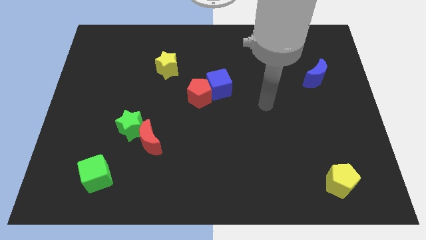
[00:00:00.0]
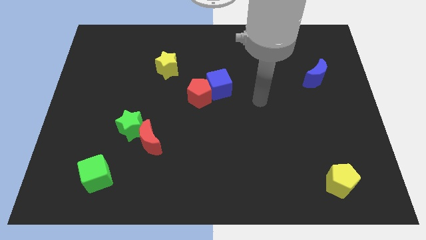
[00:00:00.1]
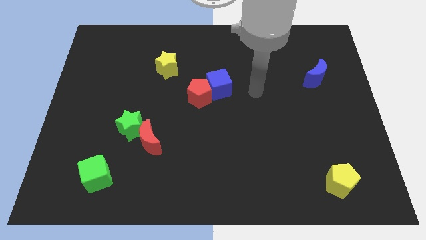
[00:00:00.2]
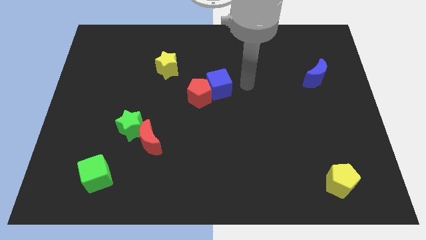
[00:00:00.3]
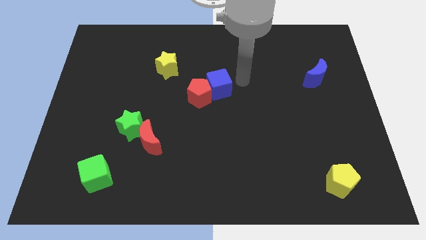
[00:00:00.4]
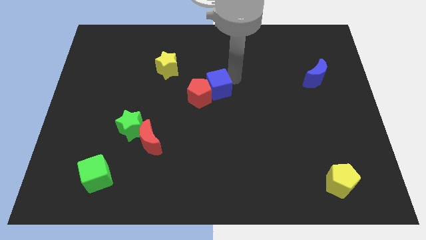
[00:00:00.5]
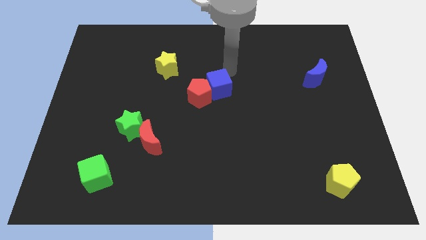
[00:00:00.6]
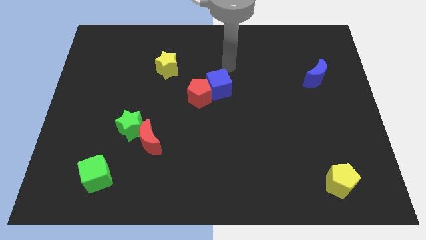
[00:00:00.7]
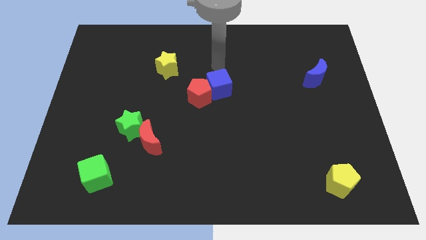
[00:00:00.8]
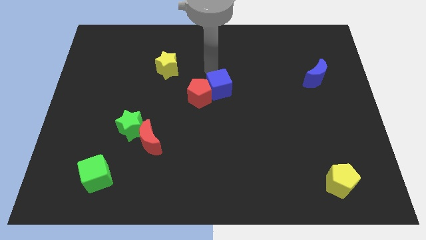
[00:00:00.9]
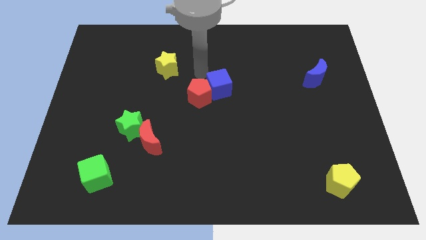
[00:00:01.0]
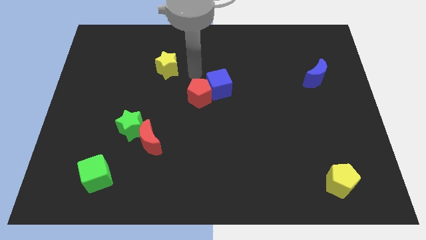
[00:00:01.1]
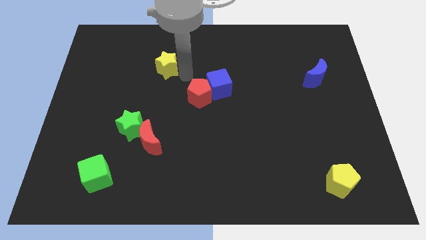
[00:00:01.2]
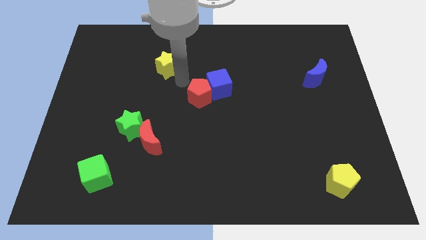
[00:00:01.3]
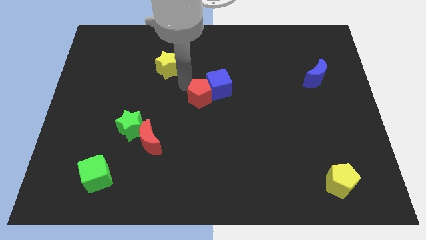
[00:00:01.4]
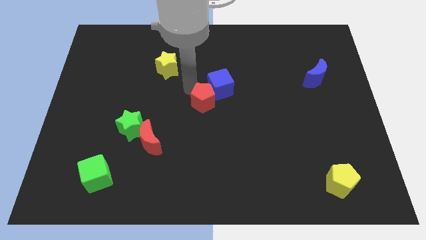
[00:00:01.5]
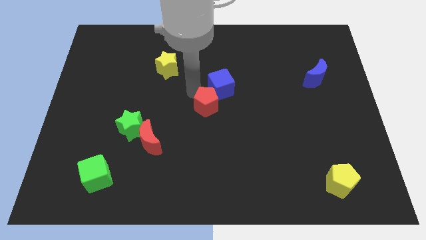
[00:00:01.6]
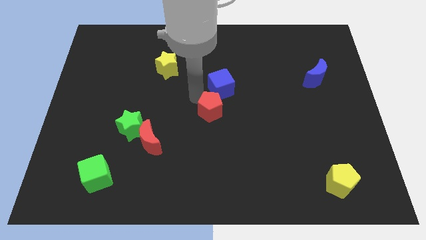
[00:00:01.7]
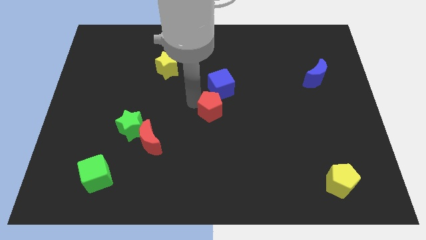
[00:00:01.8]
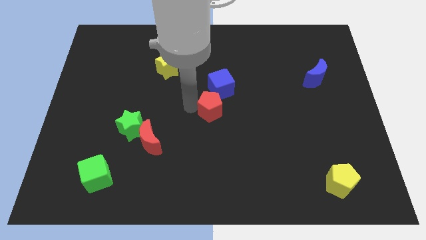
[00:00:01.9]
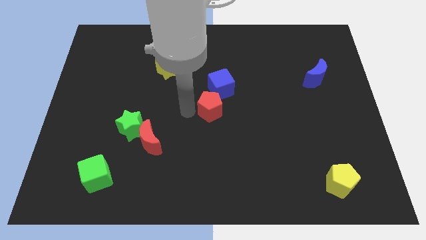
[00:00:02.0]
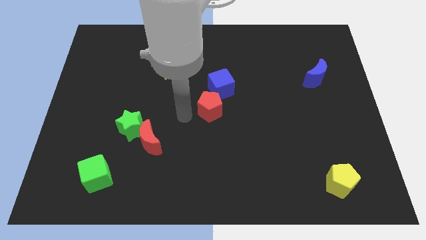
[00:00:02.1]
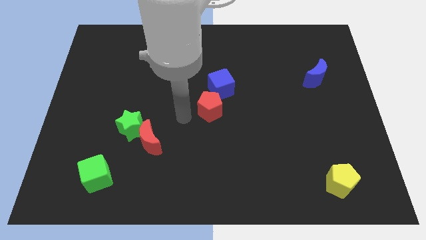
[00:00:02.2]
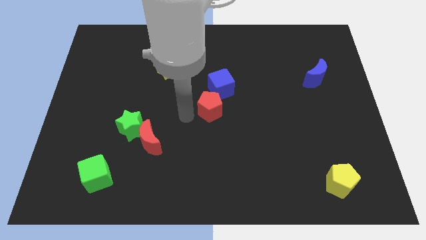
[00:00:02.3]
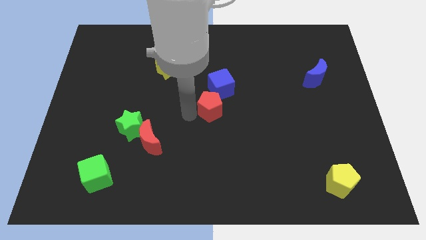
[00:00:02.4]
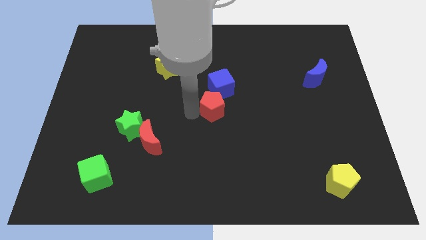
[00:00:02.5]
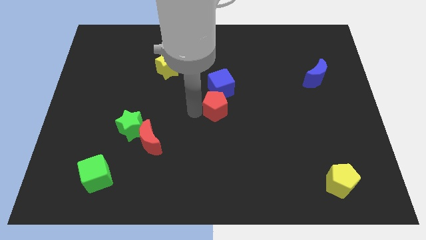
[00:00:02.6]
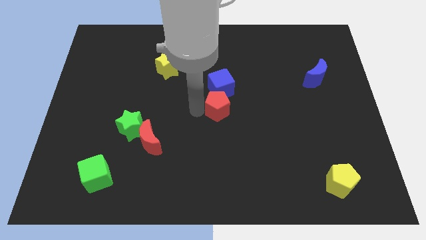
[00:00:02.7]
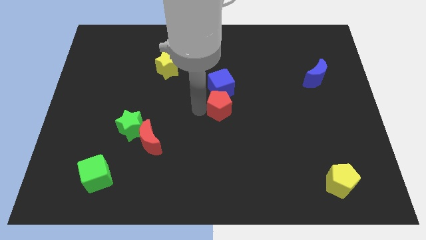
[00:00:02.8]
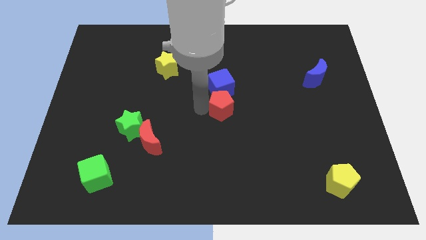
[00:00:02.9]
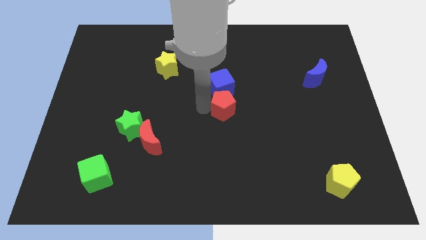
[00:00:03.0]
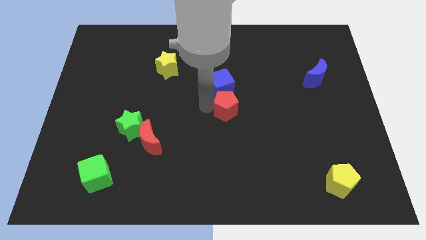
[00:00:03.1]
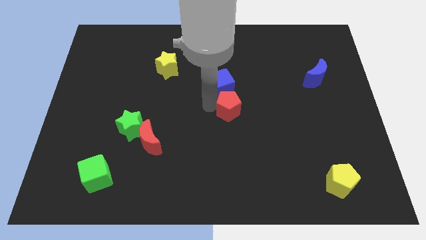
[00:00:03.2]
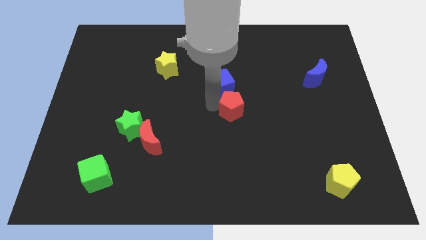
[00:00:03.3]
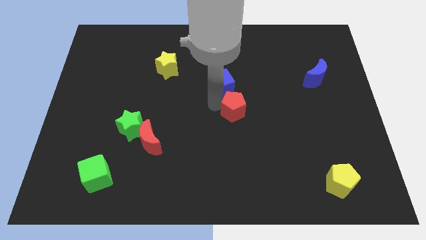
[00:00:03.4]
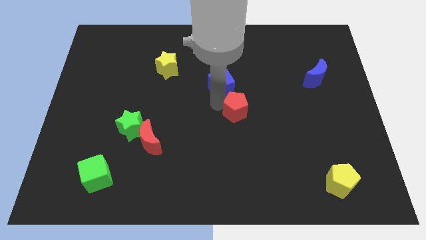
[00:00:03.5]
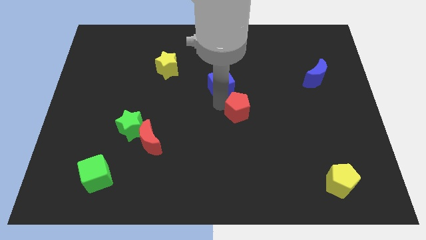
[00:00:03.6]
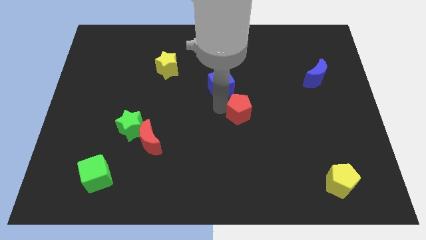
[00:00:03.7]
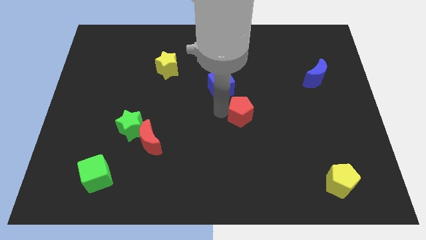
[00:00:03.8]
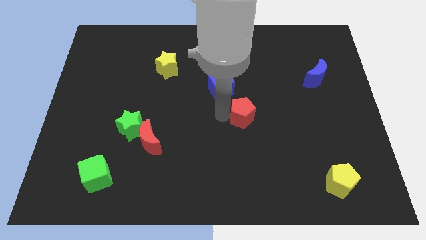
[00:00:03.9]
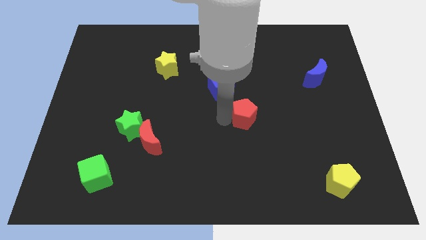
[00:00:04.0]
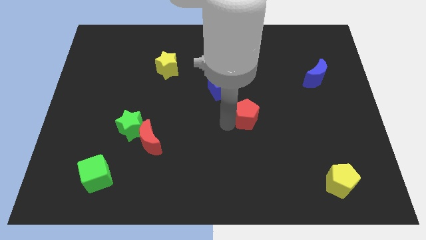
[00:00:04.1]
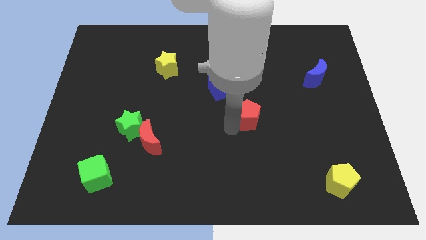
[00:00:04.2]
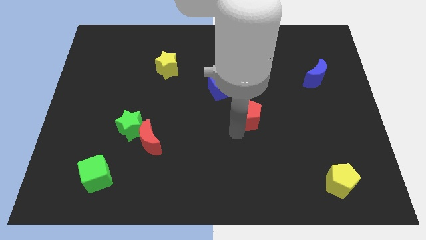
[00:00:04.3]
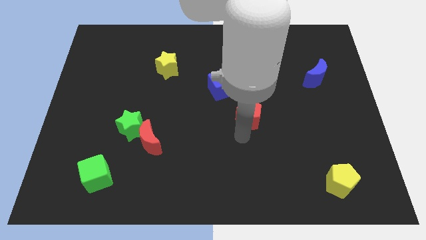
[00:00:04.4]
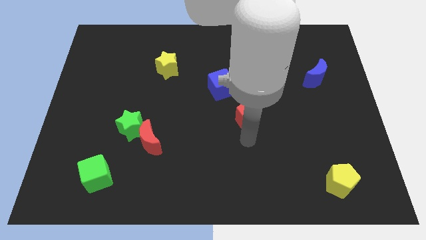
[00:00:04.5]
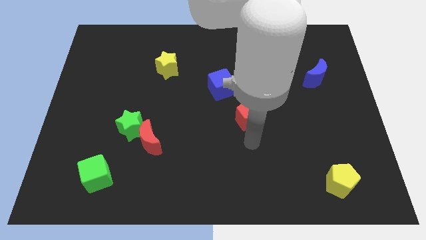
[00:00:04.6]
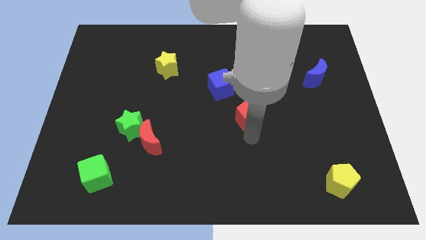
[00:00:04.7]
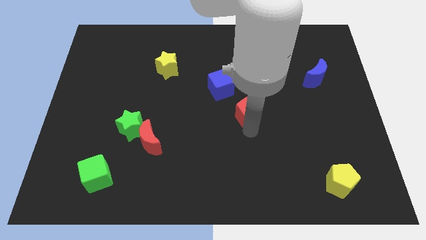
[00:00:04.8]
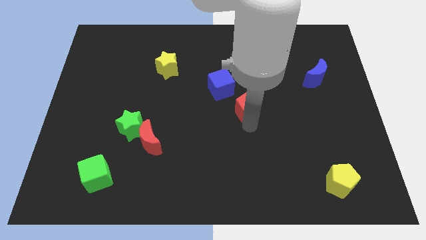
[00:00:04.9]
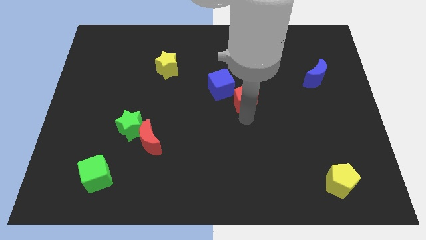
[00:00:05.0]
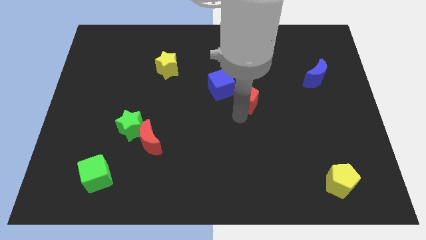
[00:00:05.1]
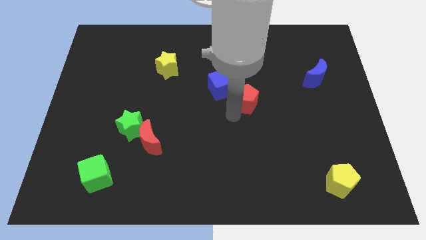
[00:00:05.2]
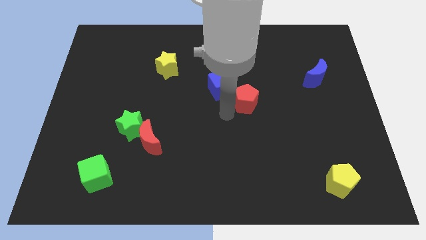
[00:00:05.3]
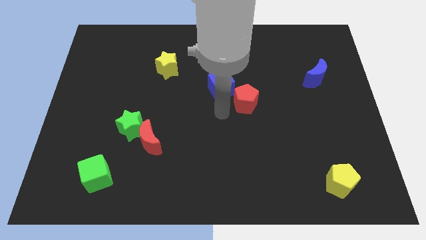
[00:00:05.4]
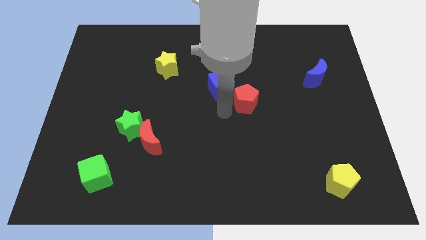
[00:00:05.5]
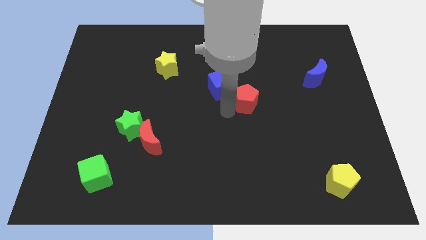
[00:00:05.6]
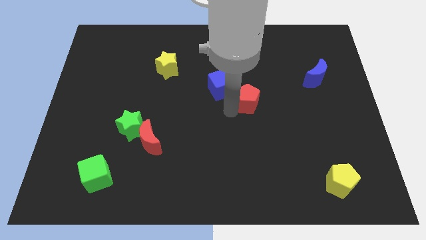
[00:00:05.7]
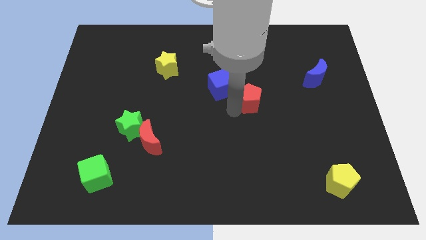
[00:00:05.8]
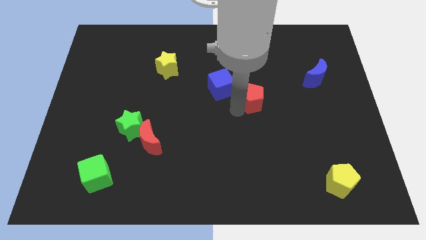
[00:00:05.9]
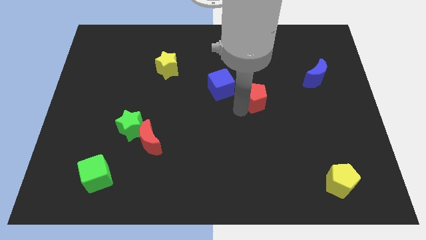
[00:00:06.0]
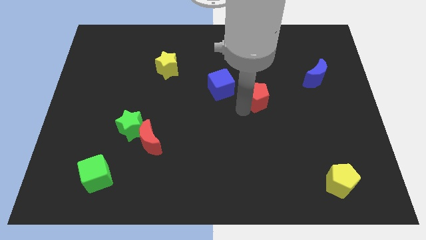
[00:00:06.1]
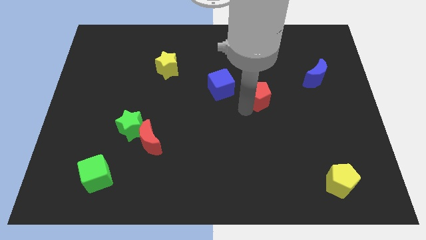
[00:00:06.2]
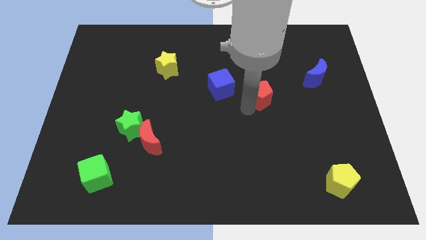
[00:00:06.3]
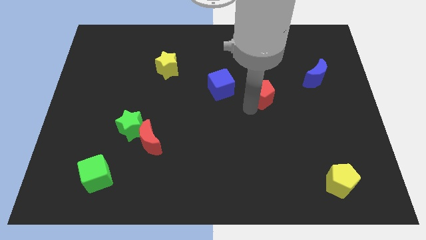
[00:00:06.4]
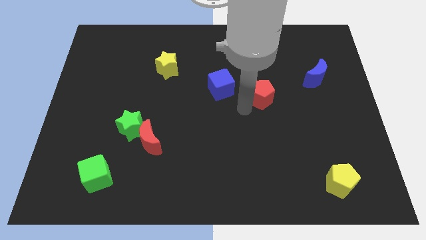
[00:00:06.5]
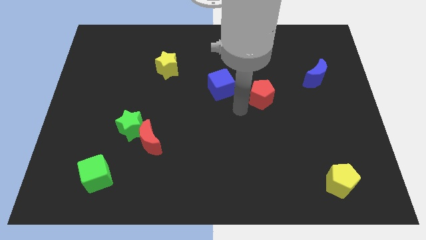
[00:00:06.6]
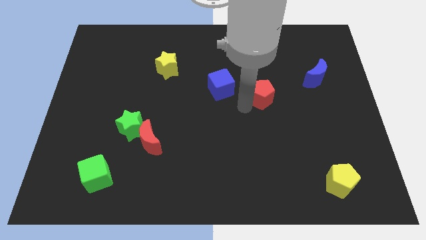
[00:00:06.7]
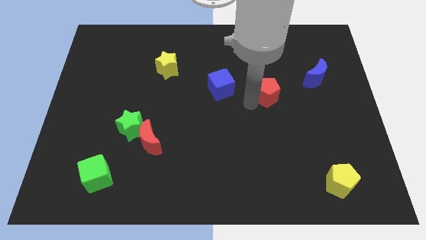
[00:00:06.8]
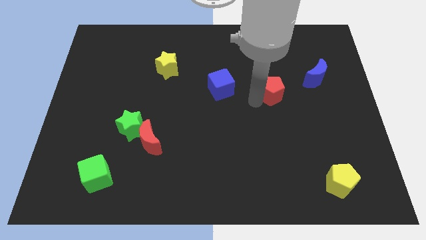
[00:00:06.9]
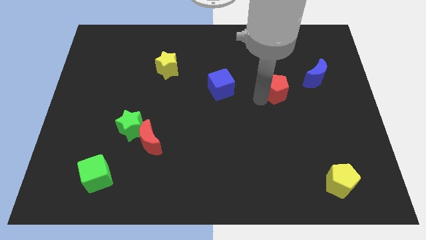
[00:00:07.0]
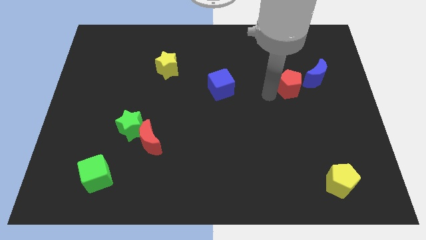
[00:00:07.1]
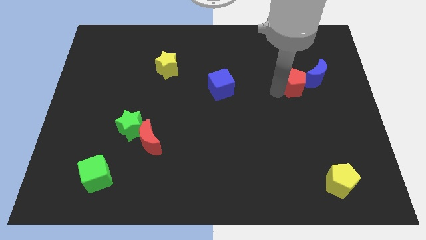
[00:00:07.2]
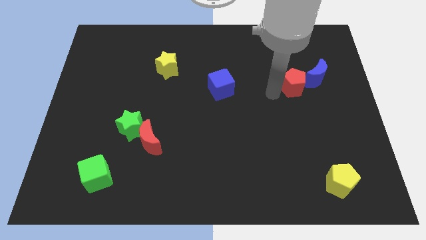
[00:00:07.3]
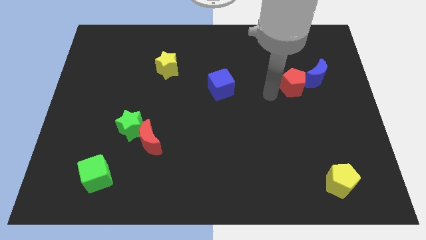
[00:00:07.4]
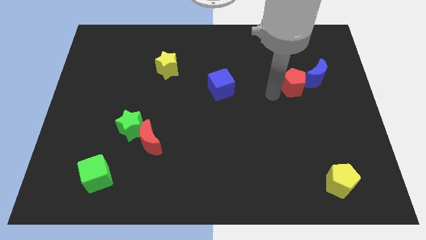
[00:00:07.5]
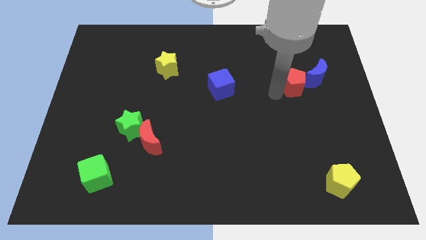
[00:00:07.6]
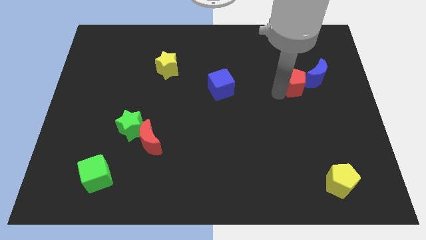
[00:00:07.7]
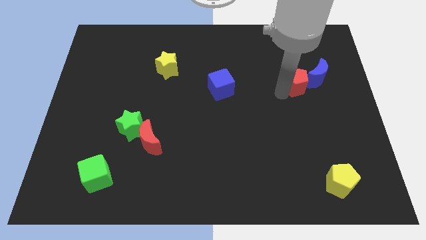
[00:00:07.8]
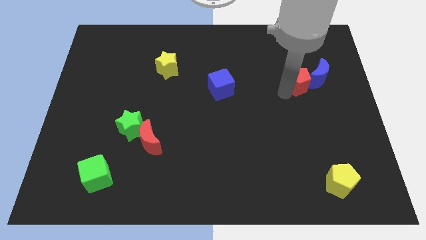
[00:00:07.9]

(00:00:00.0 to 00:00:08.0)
slide the red pentagon next to the blue moon
